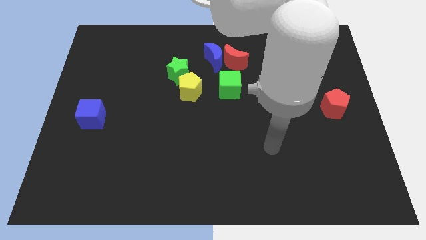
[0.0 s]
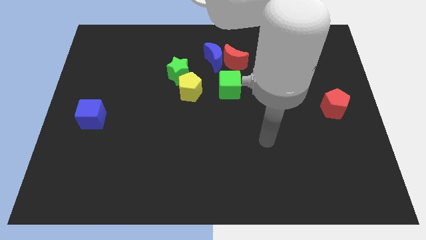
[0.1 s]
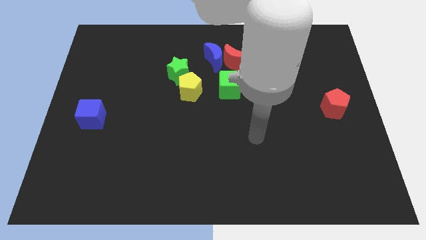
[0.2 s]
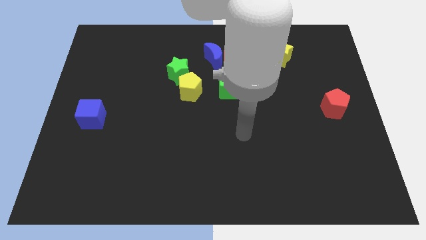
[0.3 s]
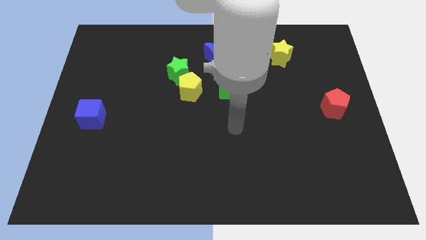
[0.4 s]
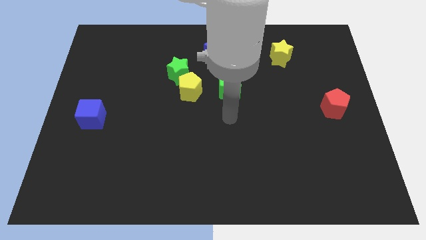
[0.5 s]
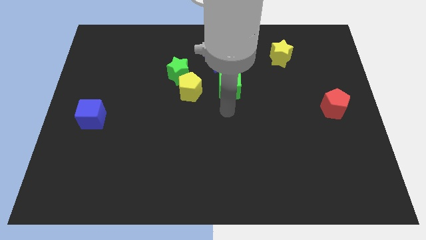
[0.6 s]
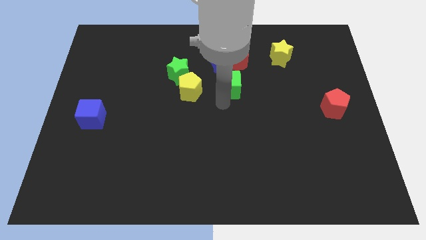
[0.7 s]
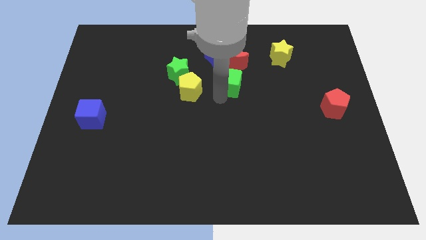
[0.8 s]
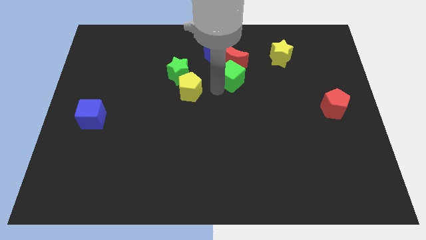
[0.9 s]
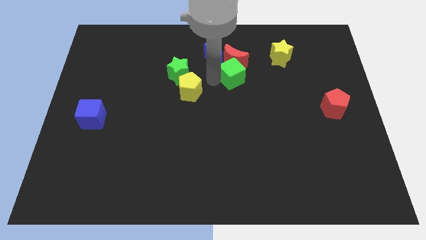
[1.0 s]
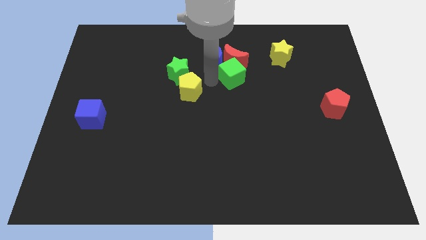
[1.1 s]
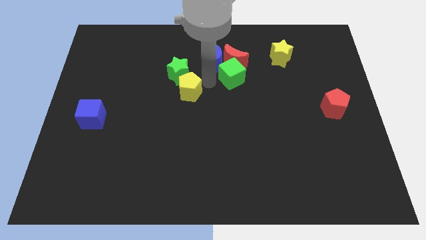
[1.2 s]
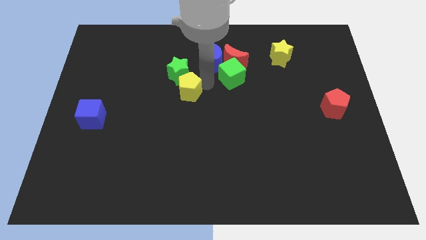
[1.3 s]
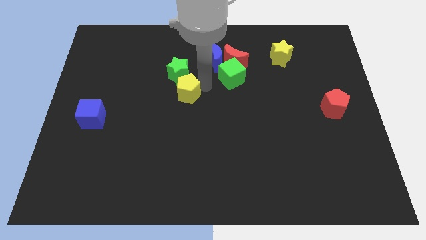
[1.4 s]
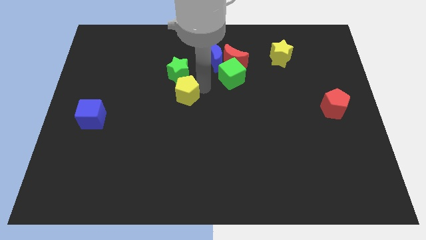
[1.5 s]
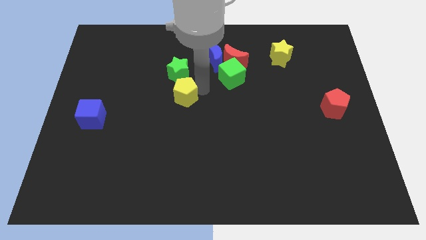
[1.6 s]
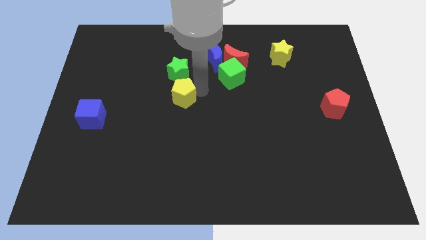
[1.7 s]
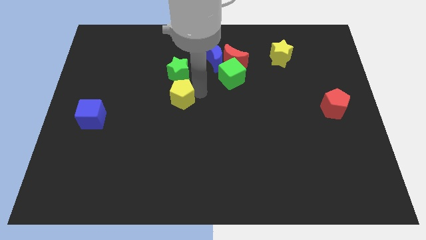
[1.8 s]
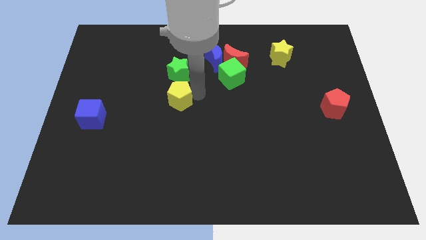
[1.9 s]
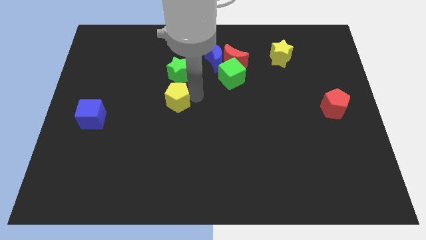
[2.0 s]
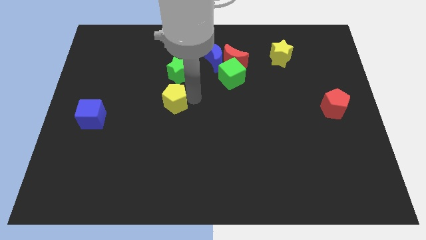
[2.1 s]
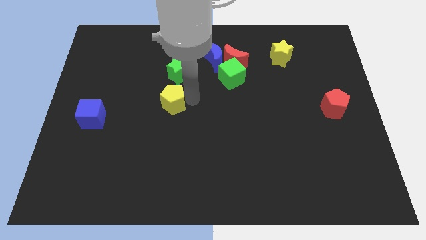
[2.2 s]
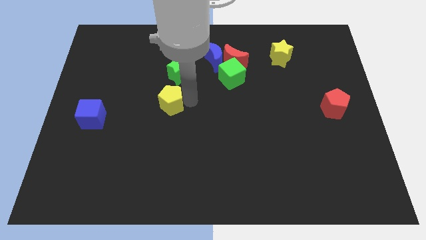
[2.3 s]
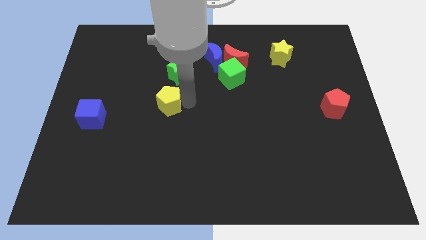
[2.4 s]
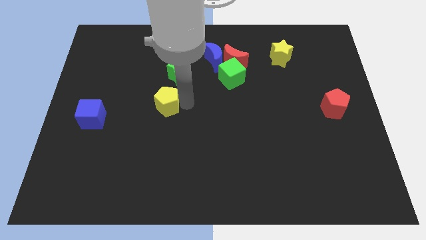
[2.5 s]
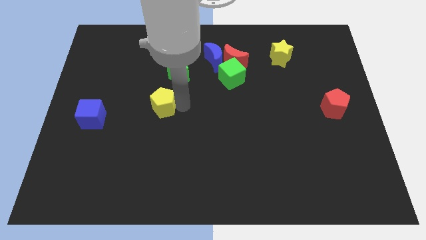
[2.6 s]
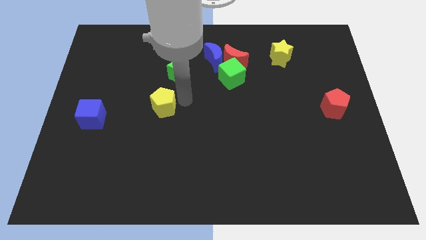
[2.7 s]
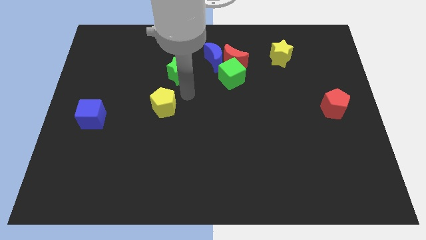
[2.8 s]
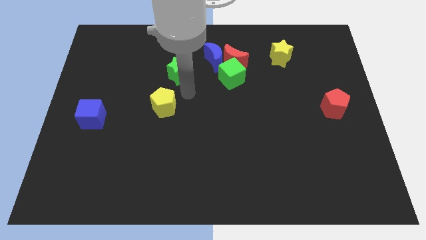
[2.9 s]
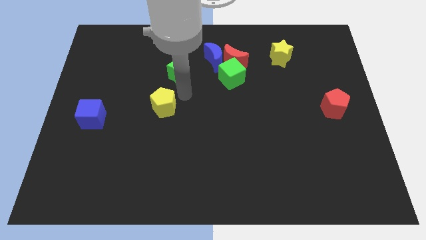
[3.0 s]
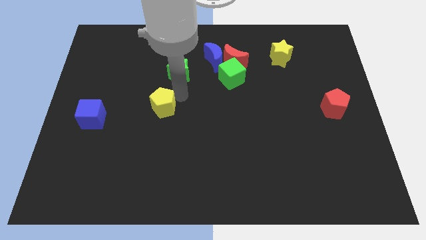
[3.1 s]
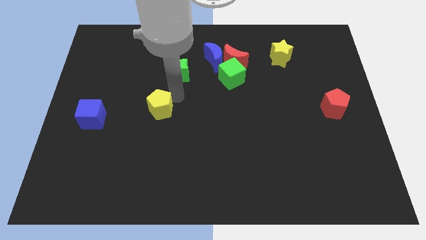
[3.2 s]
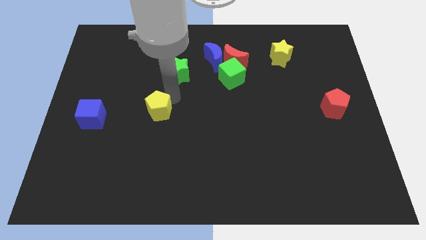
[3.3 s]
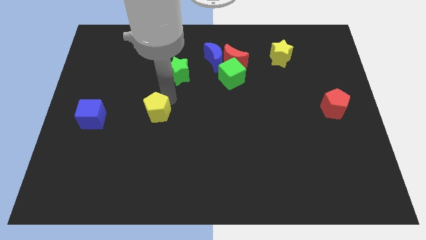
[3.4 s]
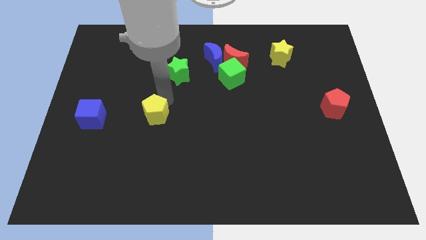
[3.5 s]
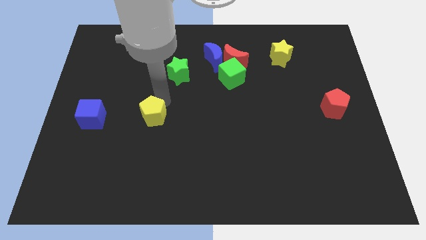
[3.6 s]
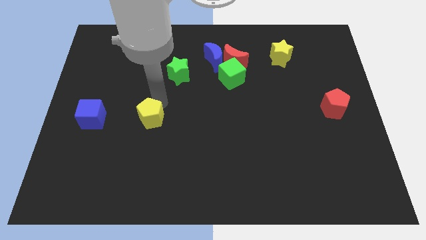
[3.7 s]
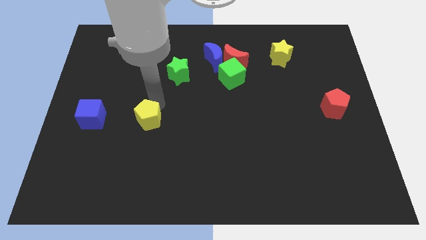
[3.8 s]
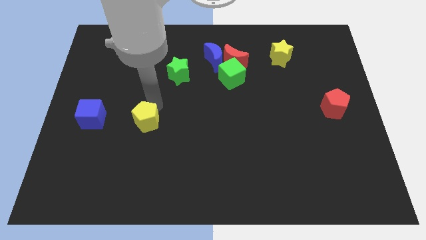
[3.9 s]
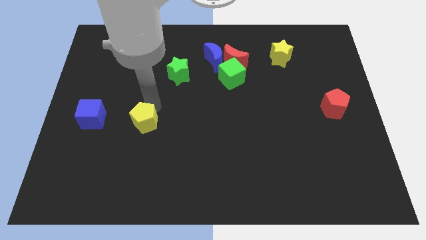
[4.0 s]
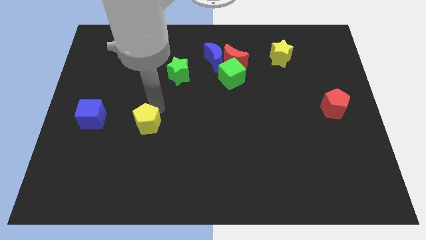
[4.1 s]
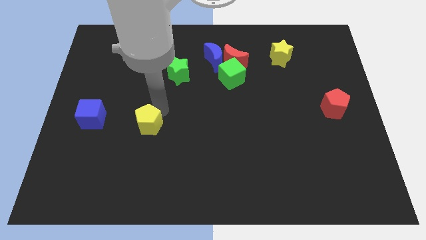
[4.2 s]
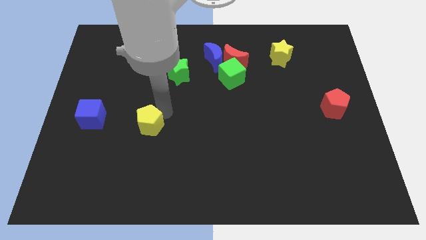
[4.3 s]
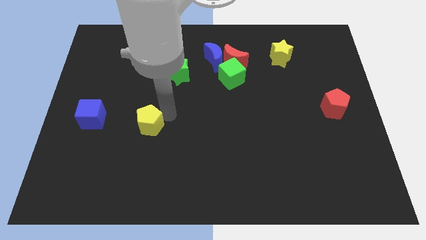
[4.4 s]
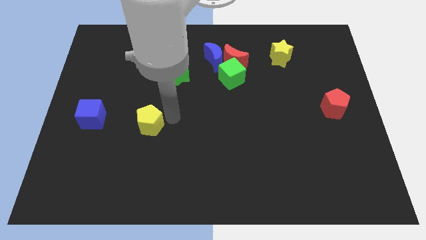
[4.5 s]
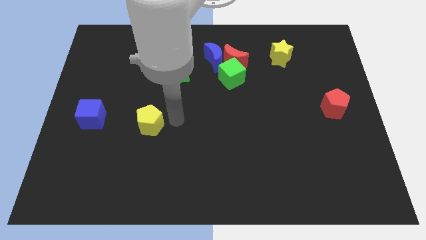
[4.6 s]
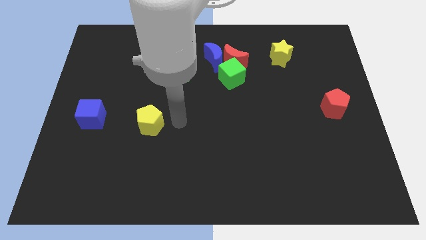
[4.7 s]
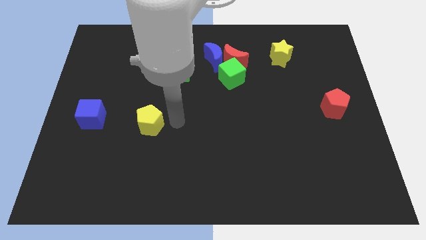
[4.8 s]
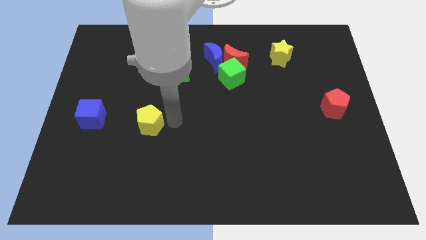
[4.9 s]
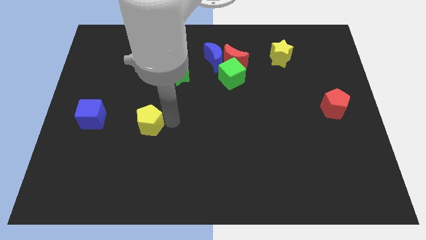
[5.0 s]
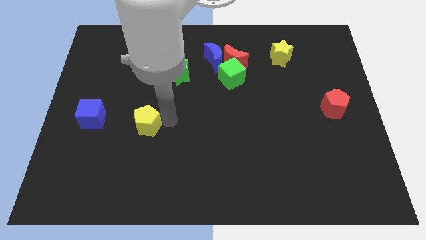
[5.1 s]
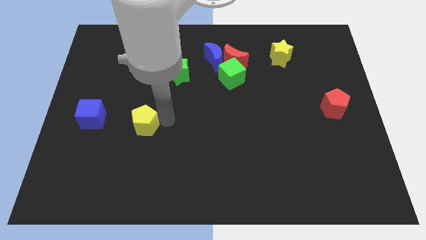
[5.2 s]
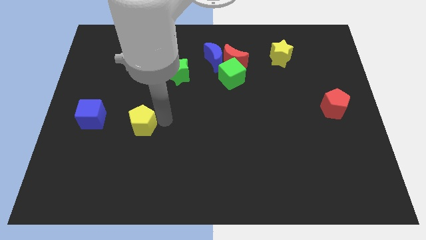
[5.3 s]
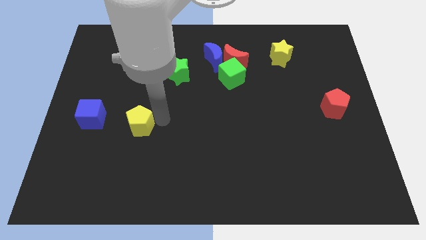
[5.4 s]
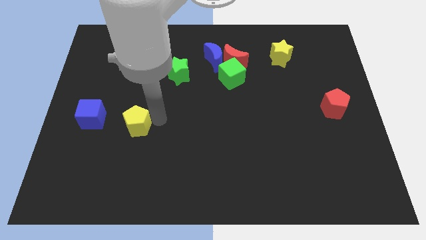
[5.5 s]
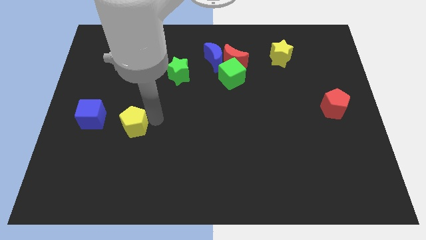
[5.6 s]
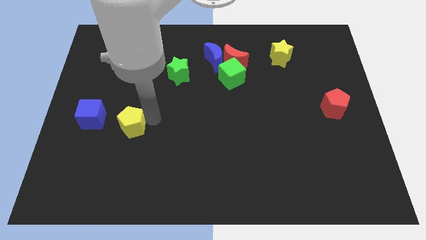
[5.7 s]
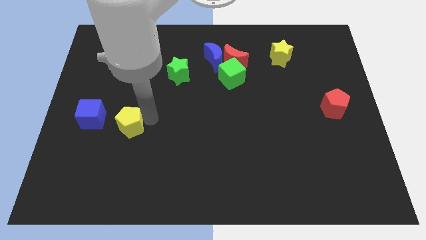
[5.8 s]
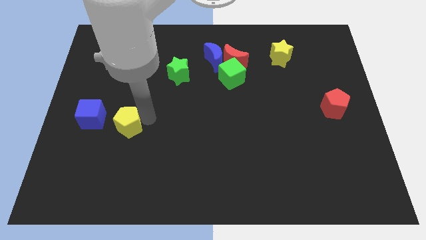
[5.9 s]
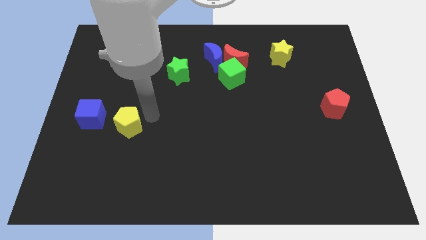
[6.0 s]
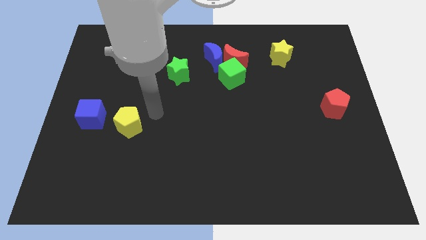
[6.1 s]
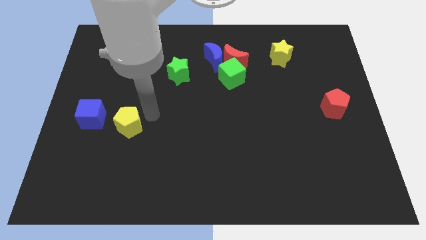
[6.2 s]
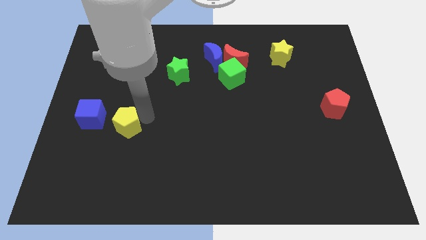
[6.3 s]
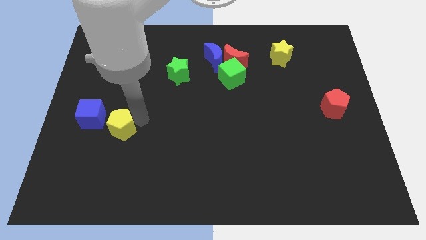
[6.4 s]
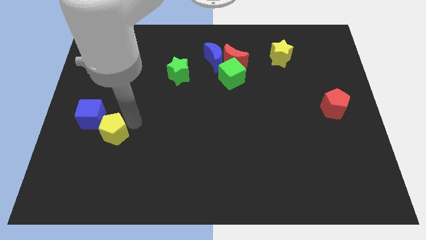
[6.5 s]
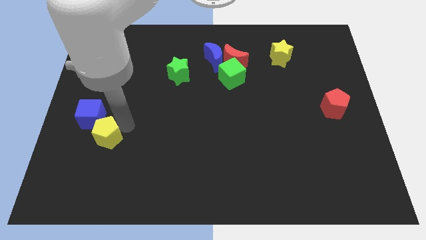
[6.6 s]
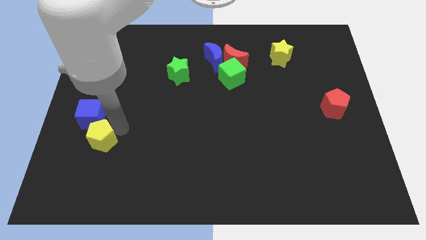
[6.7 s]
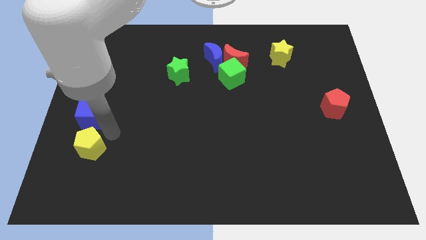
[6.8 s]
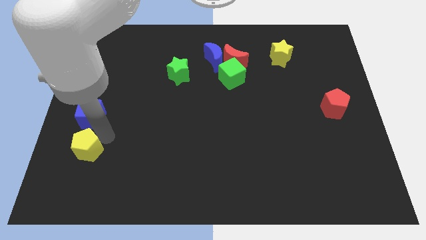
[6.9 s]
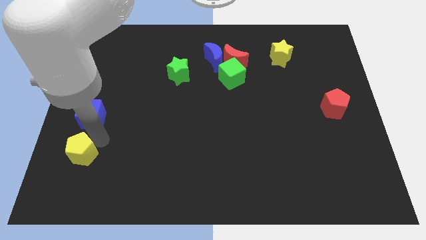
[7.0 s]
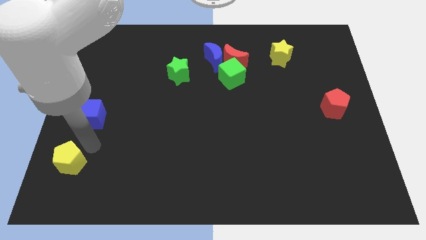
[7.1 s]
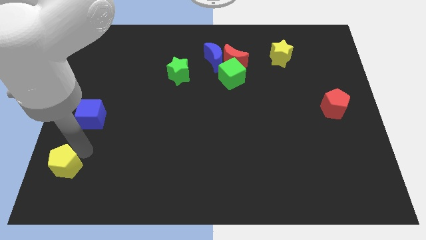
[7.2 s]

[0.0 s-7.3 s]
push the yellow pentagon to the bottom left of the board

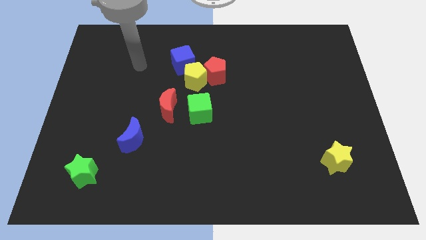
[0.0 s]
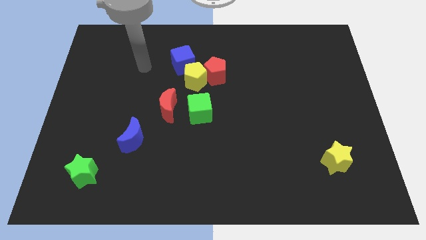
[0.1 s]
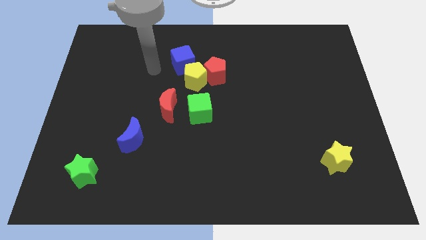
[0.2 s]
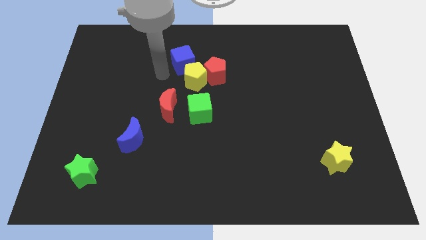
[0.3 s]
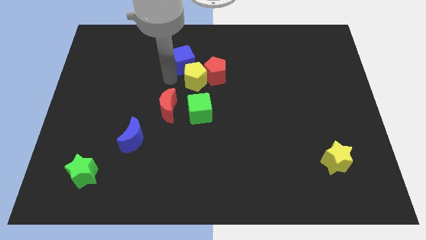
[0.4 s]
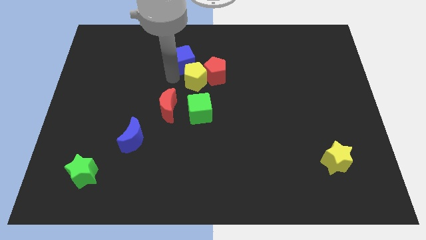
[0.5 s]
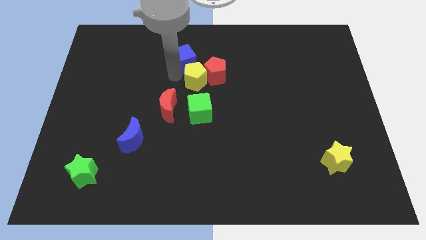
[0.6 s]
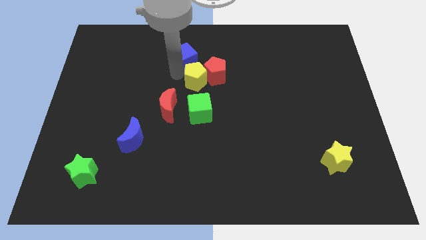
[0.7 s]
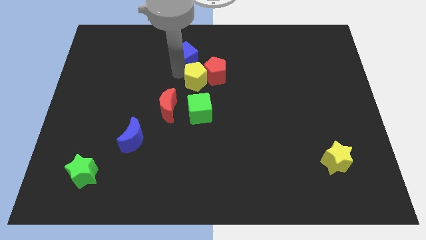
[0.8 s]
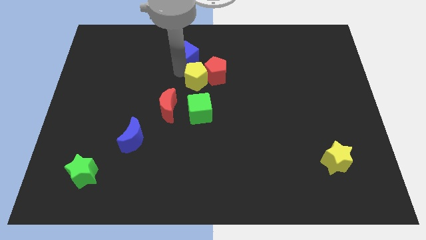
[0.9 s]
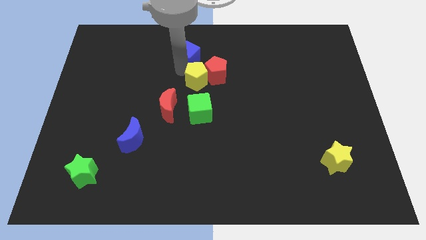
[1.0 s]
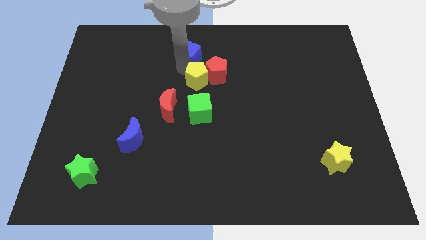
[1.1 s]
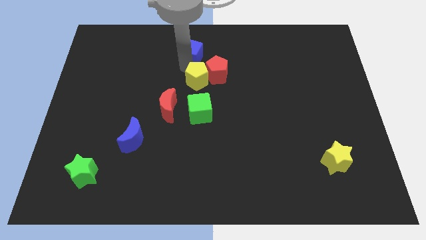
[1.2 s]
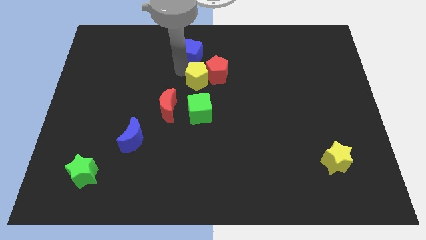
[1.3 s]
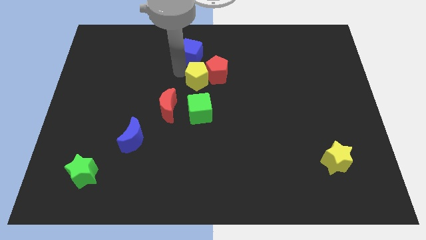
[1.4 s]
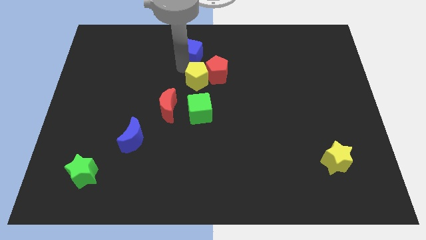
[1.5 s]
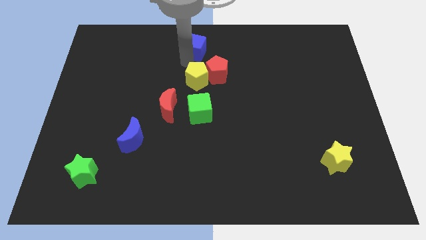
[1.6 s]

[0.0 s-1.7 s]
move the blue cube to the towards your base
